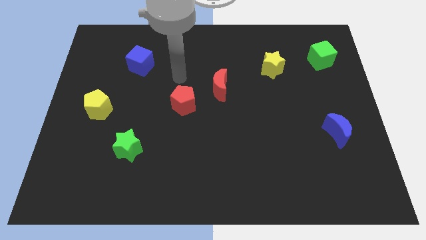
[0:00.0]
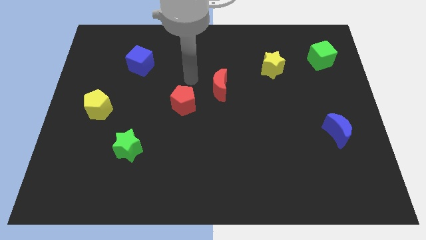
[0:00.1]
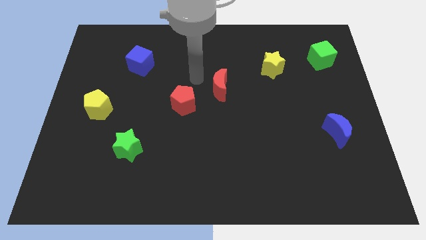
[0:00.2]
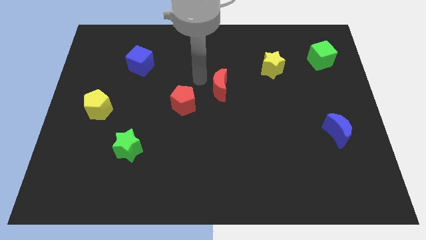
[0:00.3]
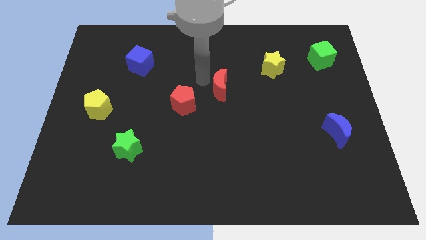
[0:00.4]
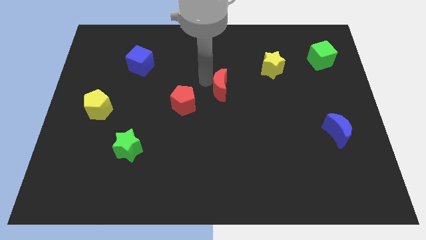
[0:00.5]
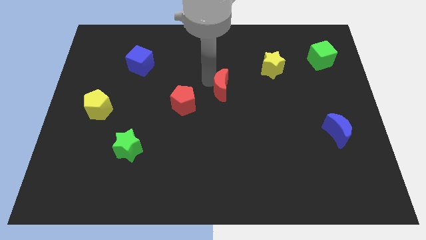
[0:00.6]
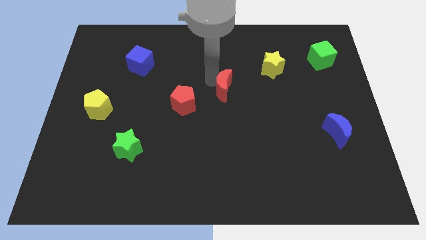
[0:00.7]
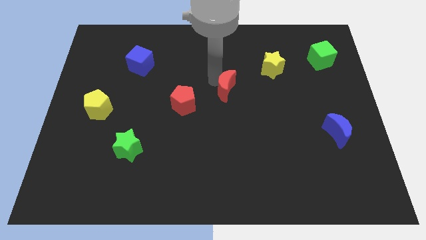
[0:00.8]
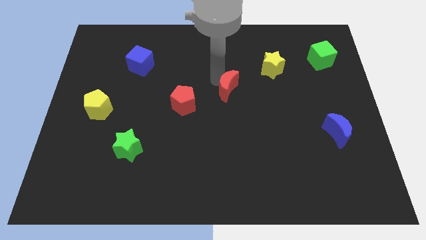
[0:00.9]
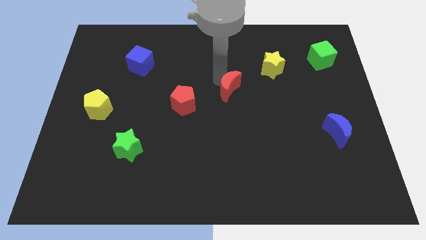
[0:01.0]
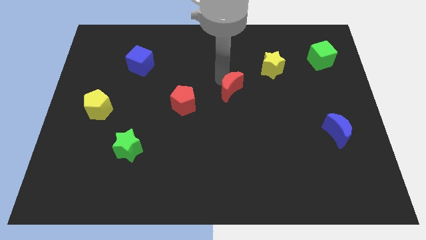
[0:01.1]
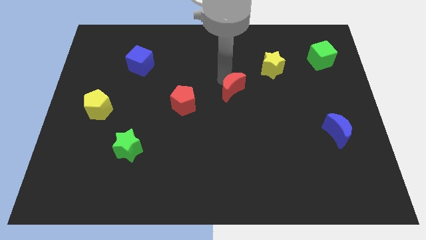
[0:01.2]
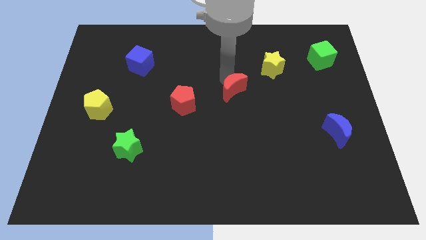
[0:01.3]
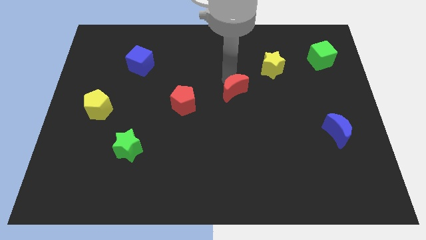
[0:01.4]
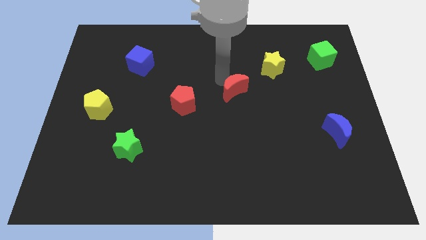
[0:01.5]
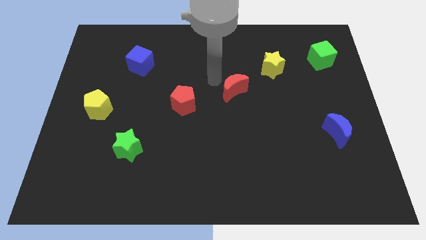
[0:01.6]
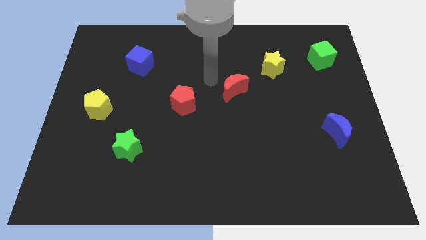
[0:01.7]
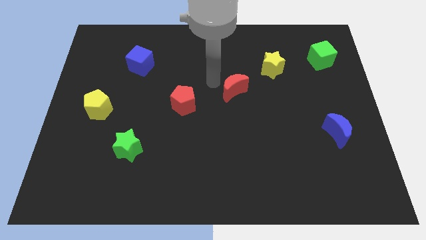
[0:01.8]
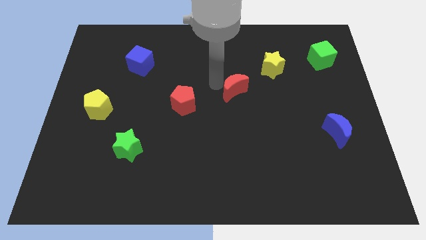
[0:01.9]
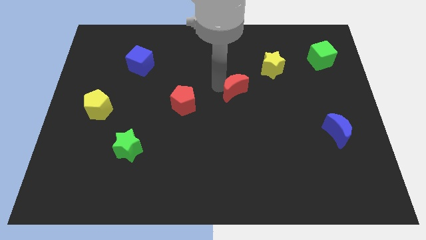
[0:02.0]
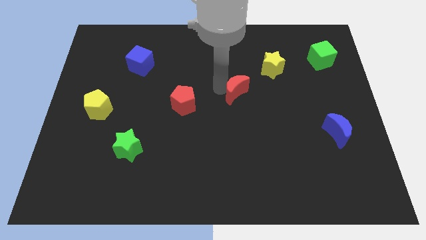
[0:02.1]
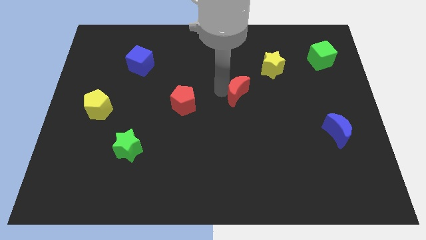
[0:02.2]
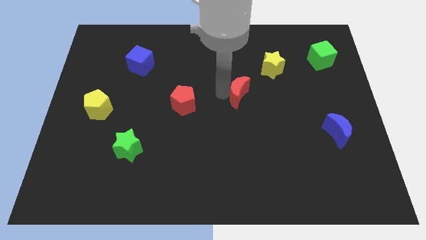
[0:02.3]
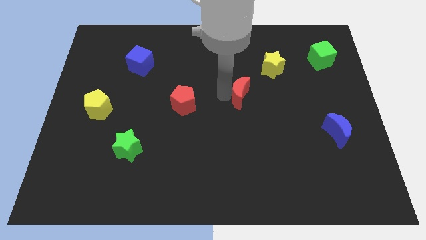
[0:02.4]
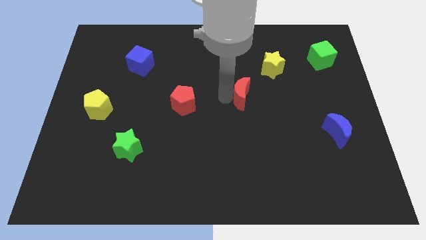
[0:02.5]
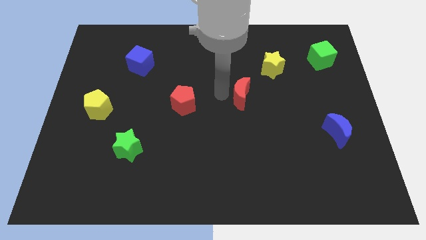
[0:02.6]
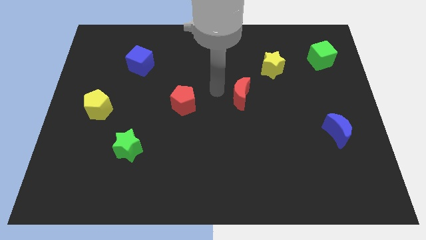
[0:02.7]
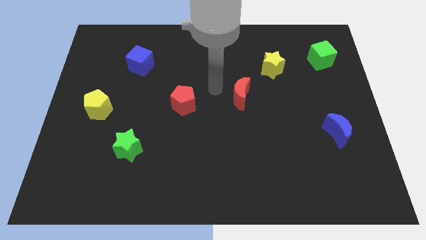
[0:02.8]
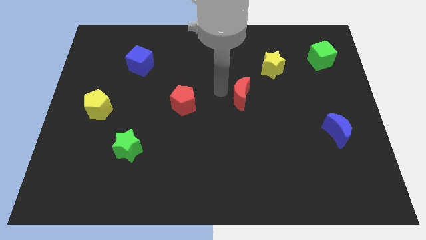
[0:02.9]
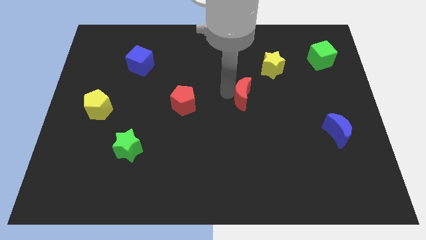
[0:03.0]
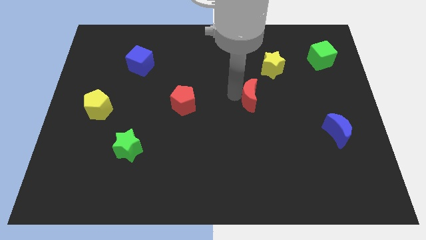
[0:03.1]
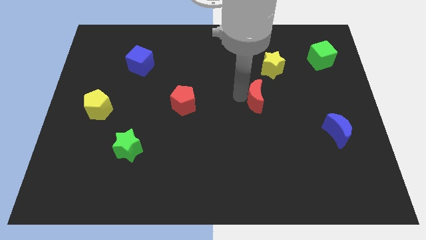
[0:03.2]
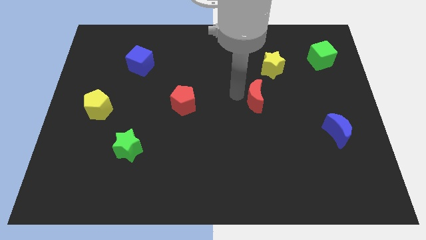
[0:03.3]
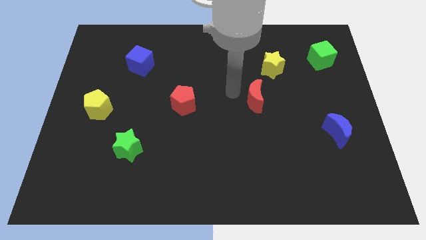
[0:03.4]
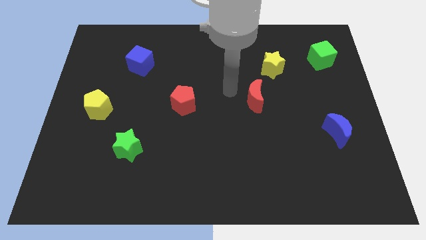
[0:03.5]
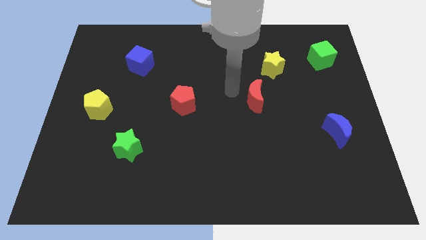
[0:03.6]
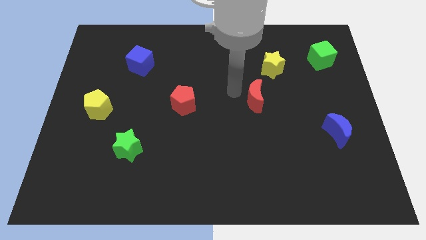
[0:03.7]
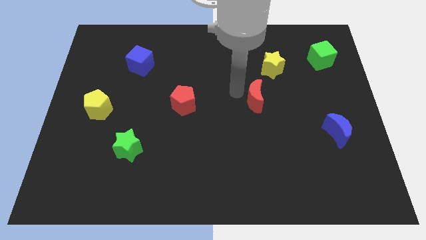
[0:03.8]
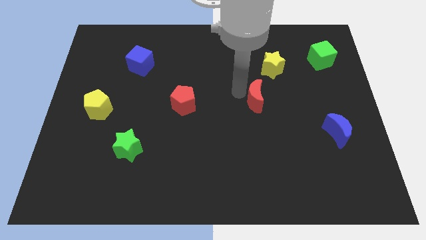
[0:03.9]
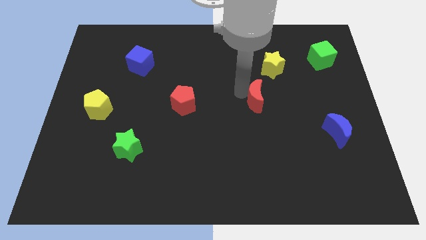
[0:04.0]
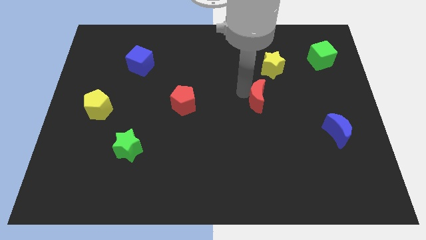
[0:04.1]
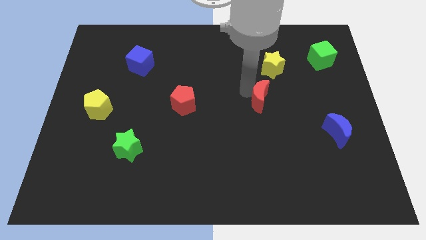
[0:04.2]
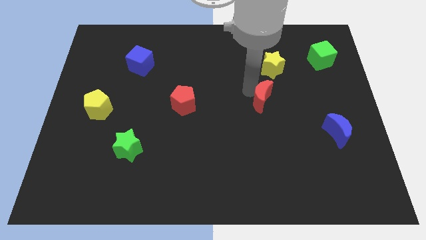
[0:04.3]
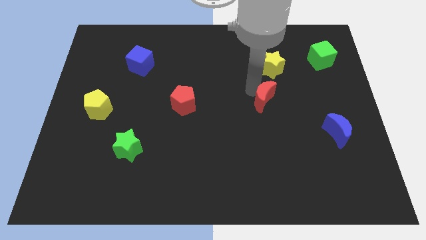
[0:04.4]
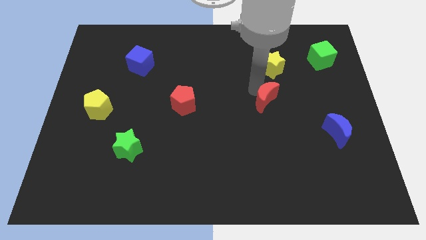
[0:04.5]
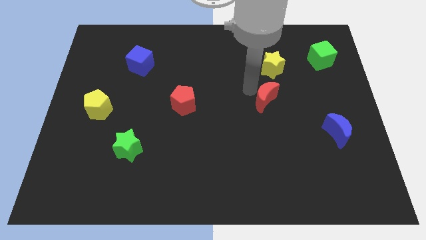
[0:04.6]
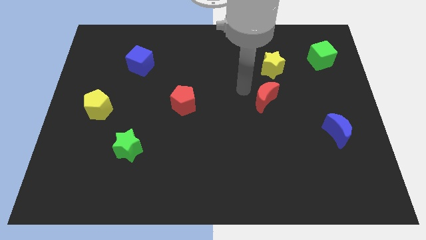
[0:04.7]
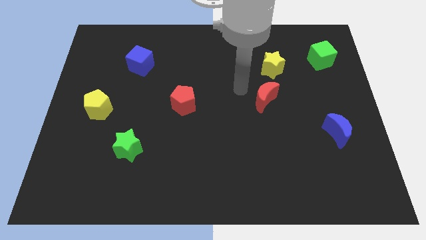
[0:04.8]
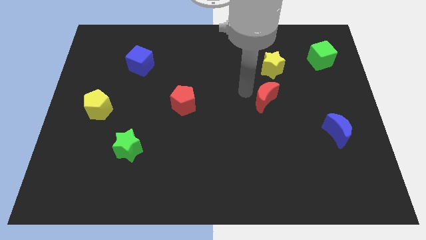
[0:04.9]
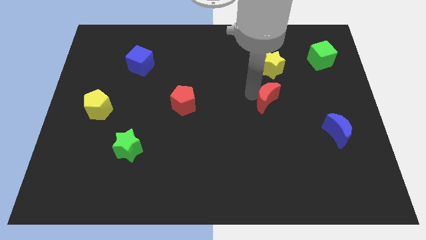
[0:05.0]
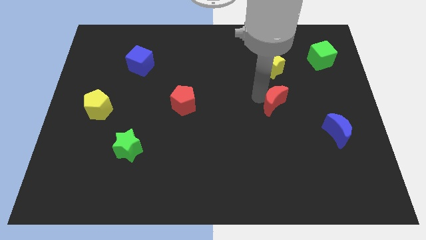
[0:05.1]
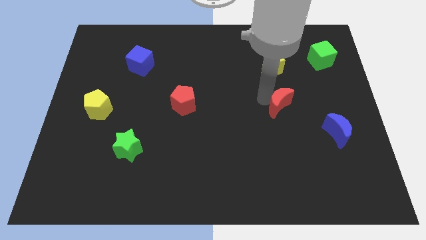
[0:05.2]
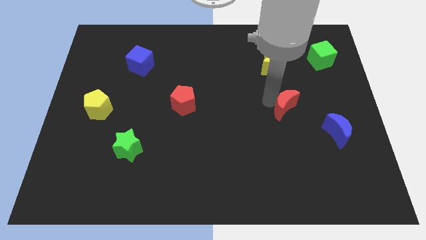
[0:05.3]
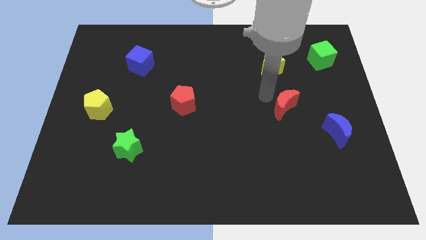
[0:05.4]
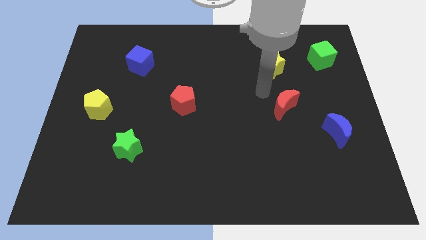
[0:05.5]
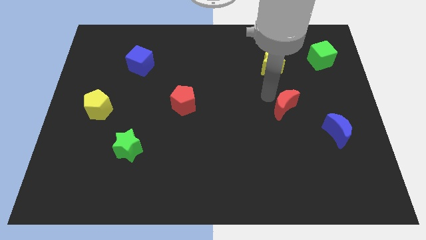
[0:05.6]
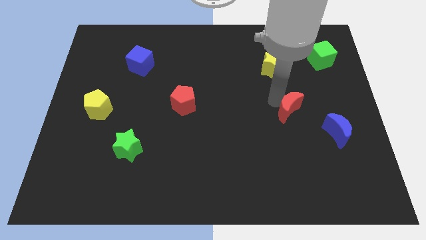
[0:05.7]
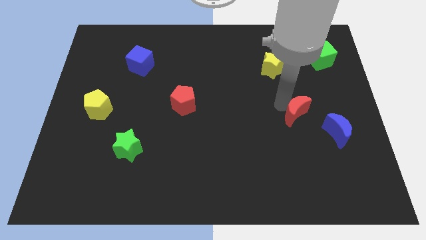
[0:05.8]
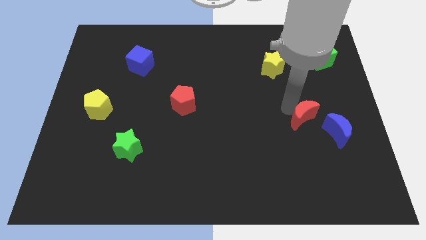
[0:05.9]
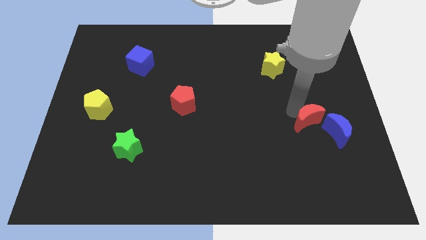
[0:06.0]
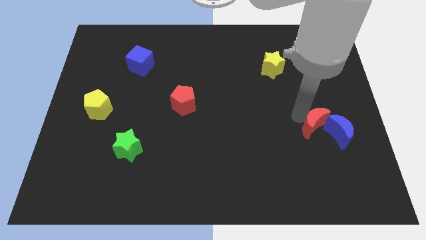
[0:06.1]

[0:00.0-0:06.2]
put the red moon close to the blue moon
